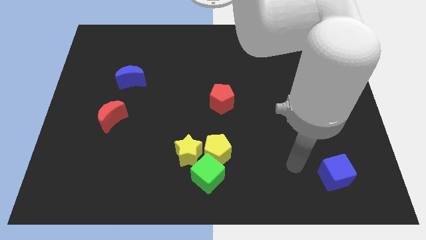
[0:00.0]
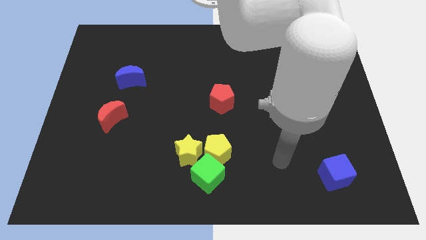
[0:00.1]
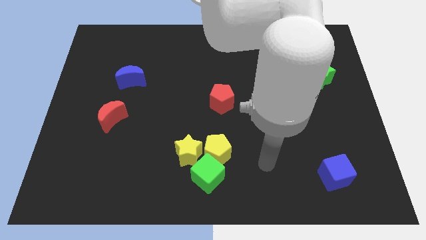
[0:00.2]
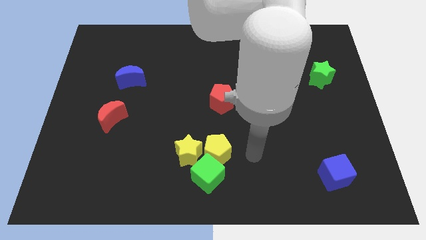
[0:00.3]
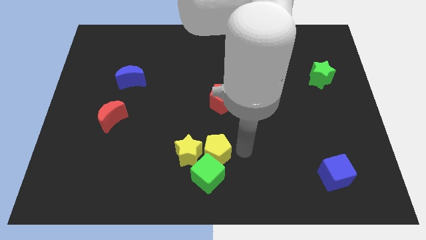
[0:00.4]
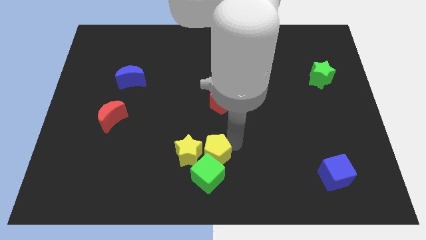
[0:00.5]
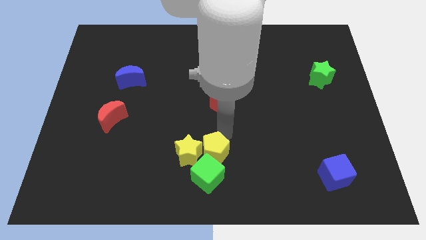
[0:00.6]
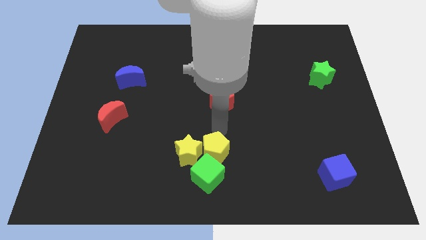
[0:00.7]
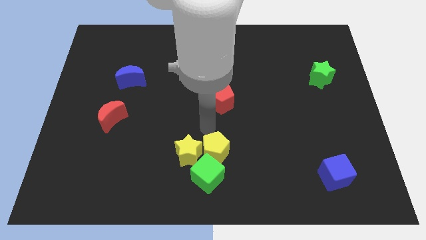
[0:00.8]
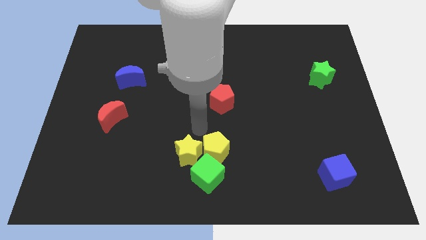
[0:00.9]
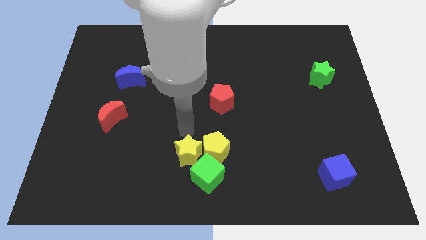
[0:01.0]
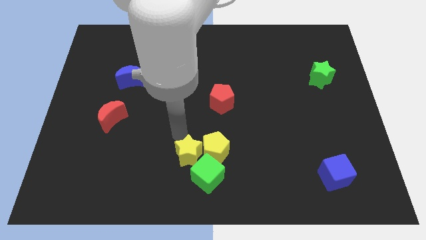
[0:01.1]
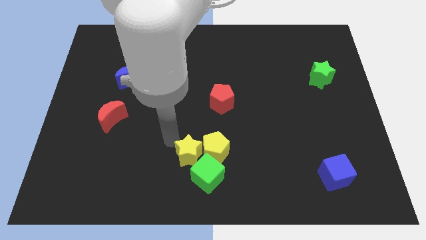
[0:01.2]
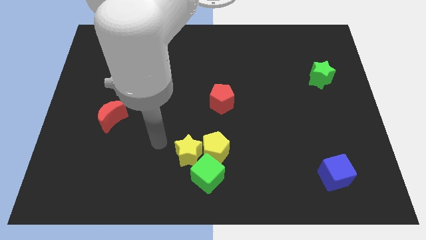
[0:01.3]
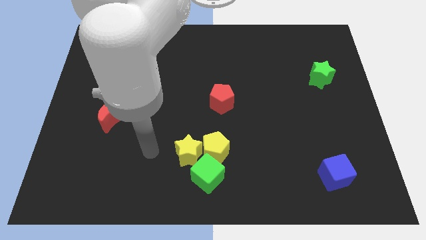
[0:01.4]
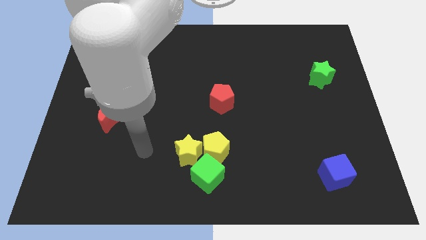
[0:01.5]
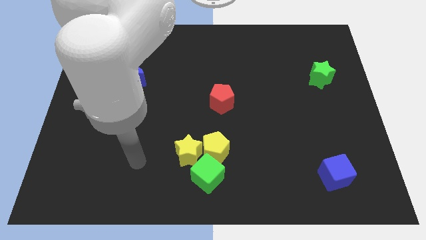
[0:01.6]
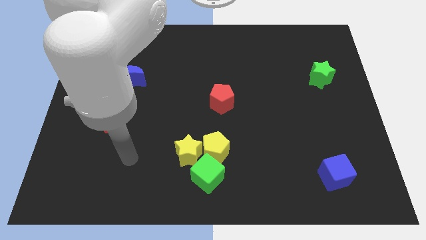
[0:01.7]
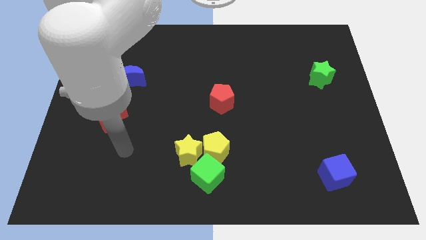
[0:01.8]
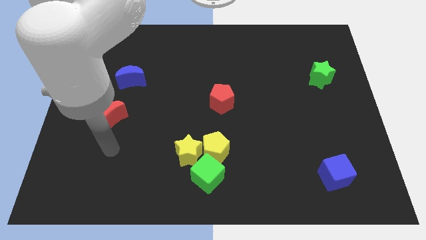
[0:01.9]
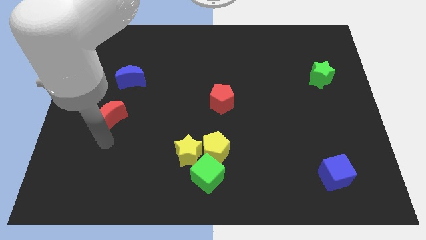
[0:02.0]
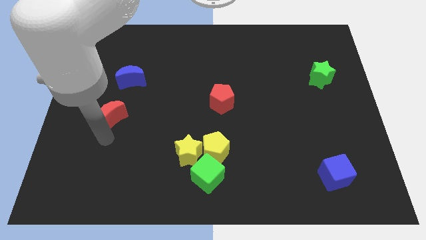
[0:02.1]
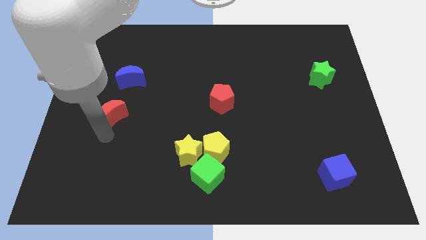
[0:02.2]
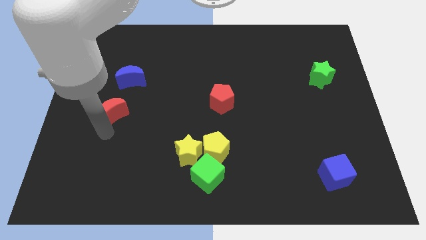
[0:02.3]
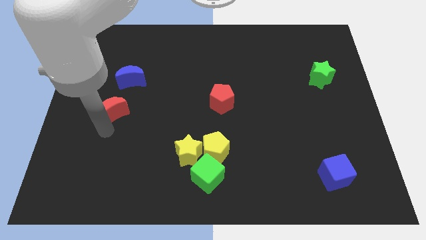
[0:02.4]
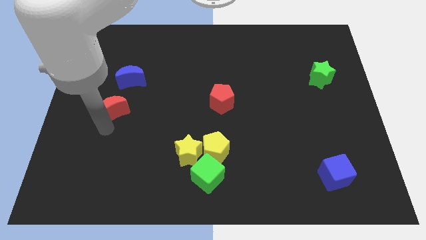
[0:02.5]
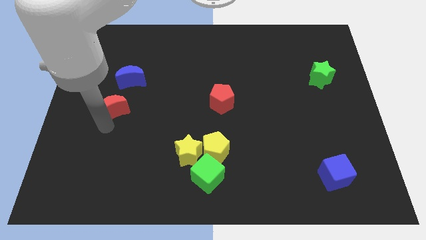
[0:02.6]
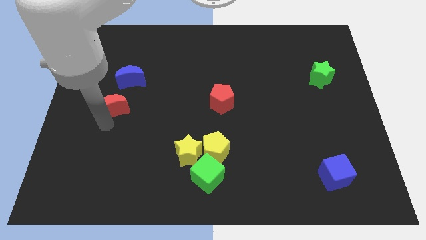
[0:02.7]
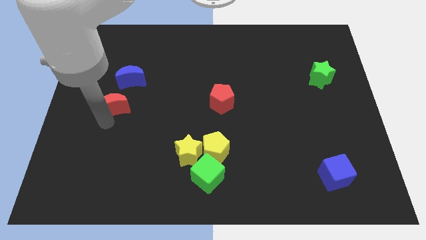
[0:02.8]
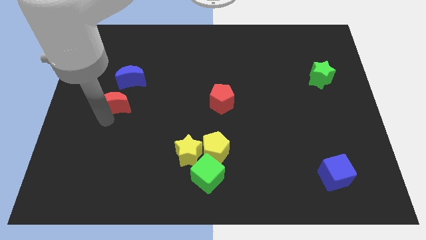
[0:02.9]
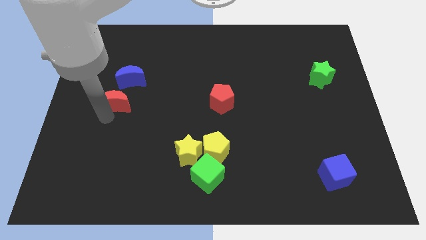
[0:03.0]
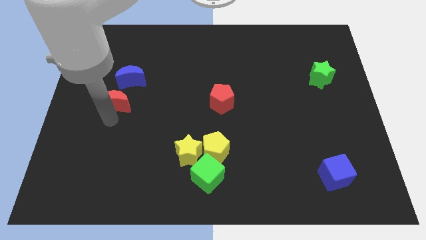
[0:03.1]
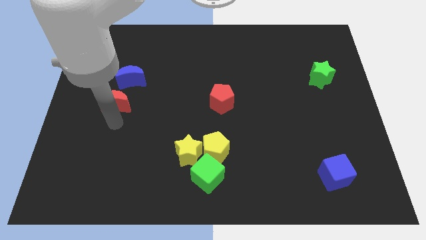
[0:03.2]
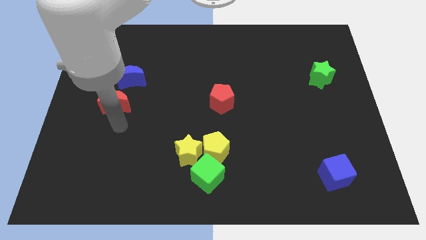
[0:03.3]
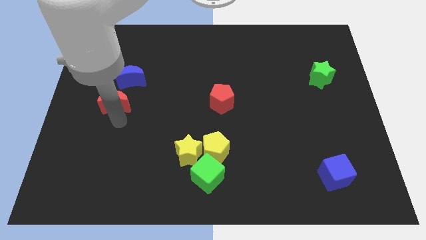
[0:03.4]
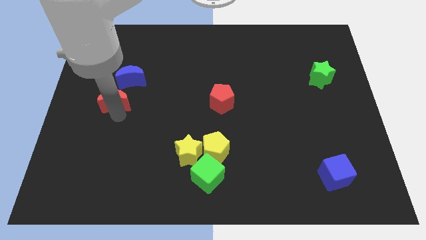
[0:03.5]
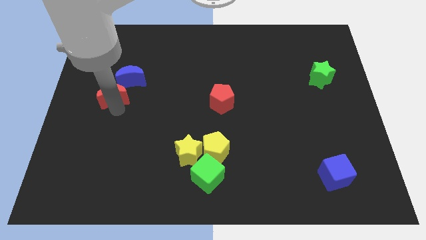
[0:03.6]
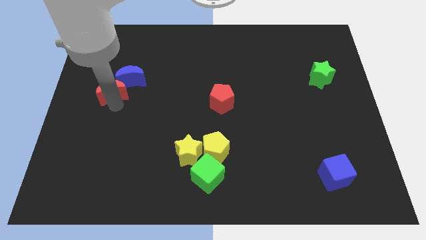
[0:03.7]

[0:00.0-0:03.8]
slightly slide the red moon up

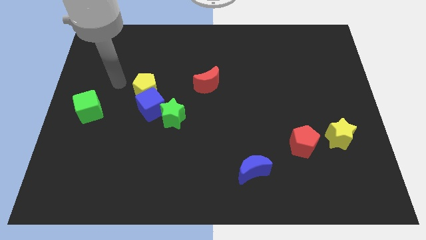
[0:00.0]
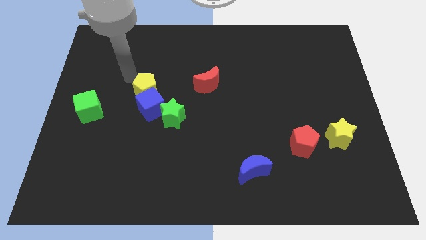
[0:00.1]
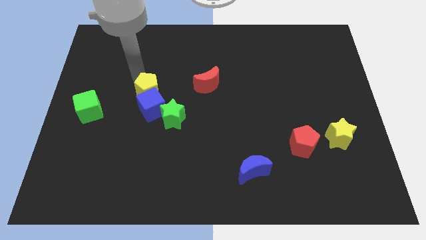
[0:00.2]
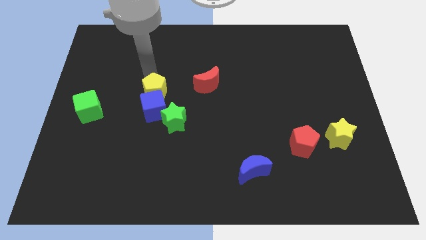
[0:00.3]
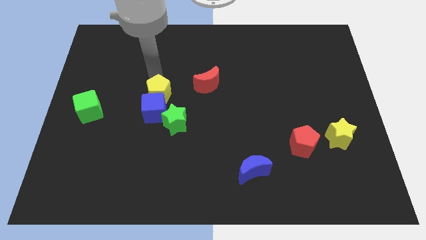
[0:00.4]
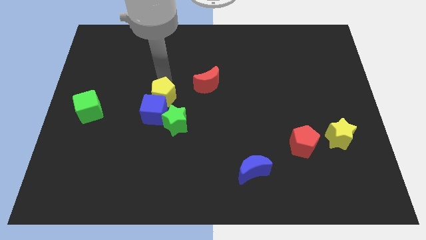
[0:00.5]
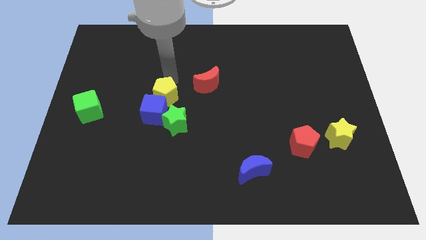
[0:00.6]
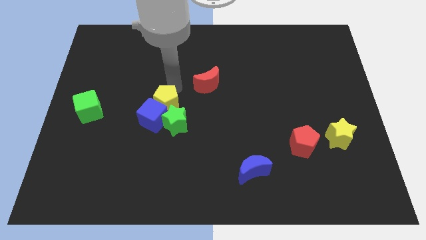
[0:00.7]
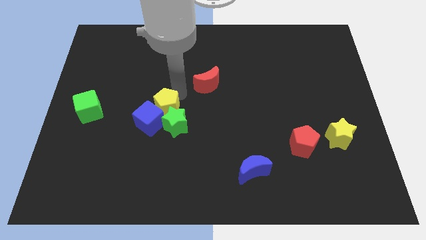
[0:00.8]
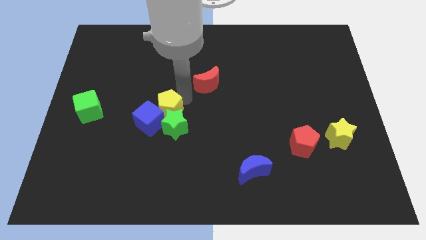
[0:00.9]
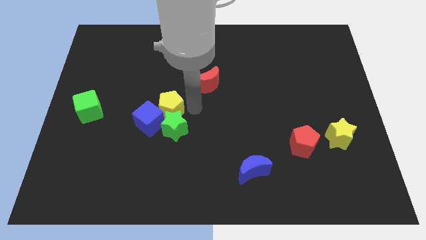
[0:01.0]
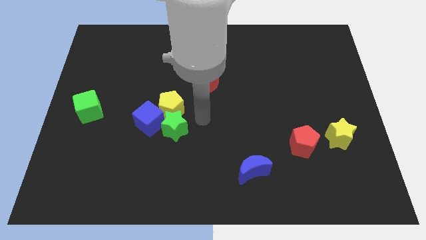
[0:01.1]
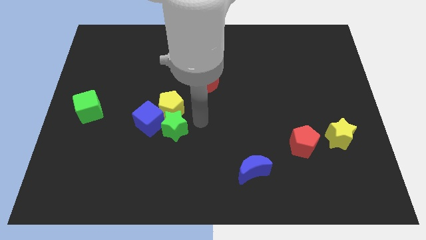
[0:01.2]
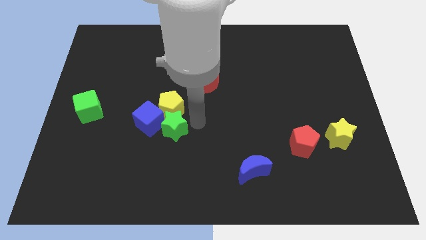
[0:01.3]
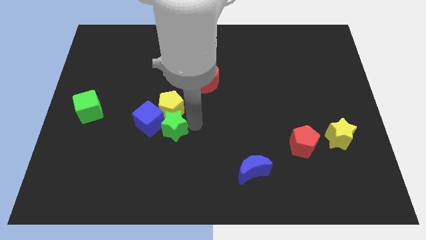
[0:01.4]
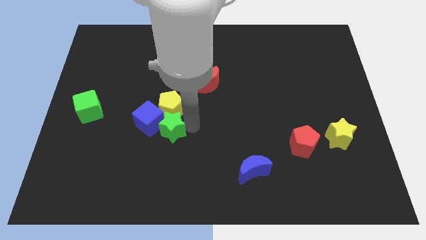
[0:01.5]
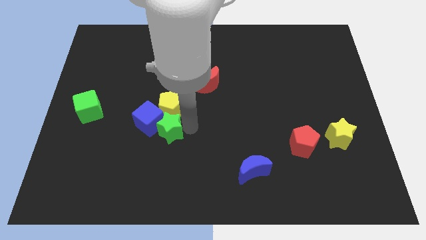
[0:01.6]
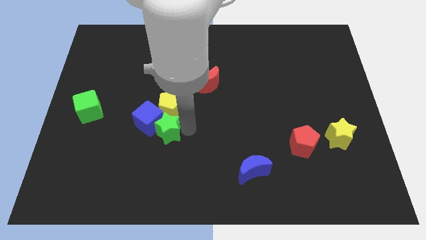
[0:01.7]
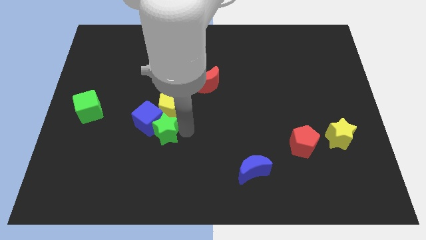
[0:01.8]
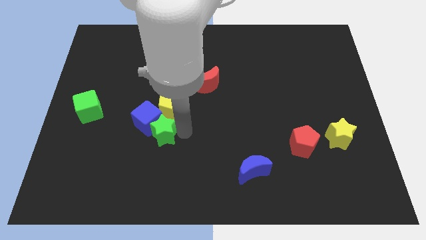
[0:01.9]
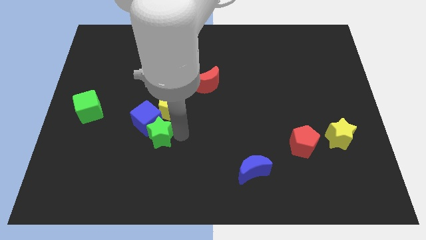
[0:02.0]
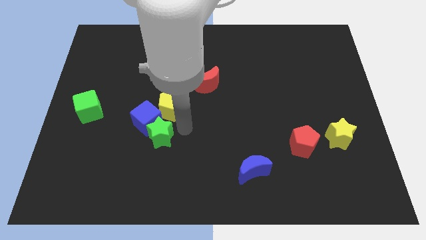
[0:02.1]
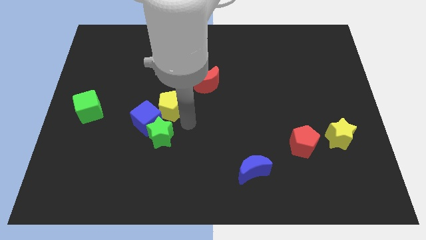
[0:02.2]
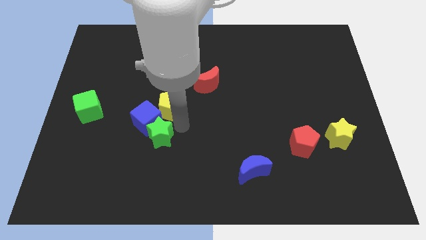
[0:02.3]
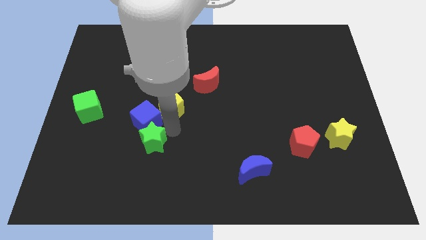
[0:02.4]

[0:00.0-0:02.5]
push the green star downwards and then left a little

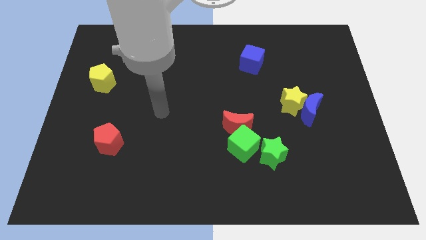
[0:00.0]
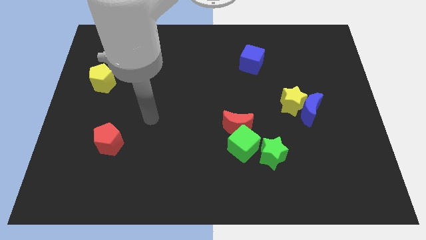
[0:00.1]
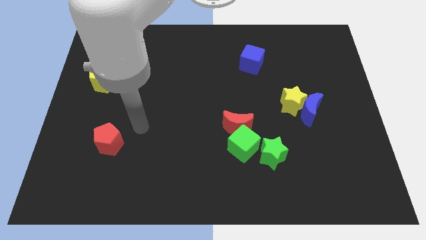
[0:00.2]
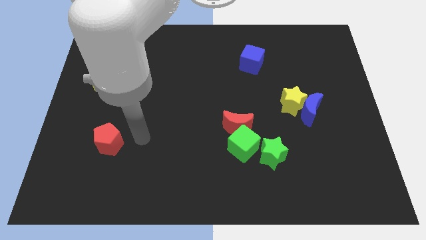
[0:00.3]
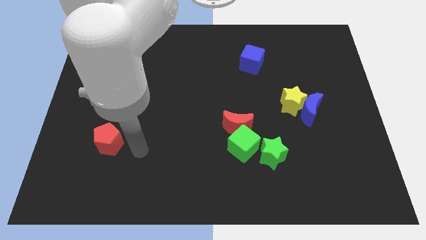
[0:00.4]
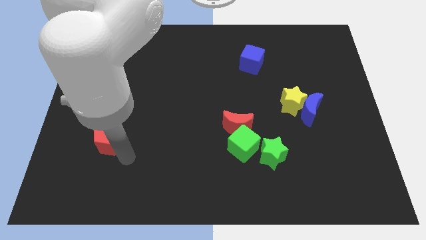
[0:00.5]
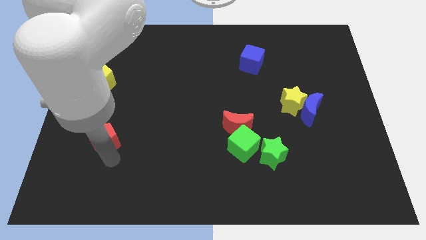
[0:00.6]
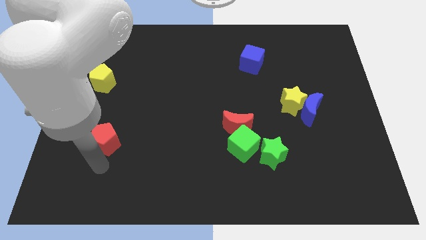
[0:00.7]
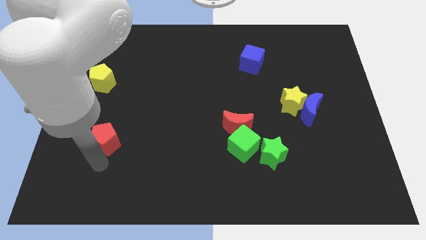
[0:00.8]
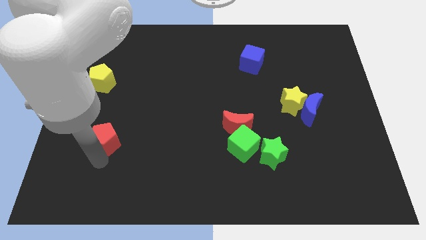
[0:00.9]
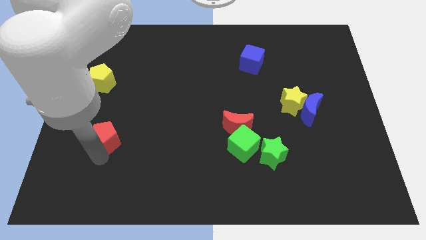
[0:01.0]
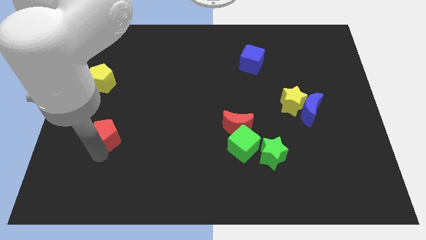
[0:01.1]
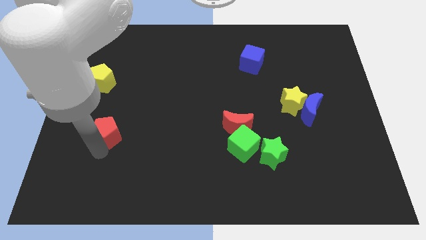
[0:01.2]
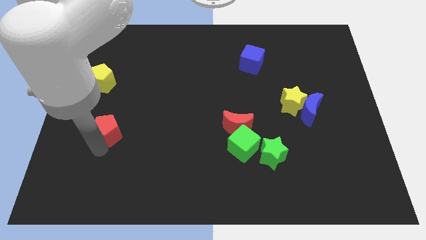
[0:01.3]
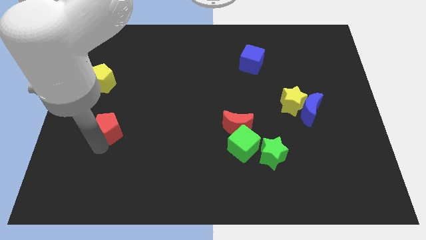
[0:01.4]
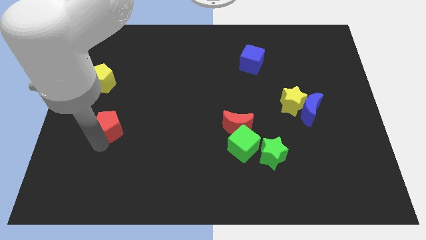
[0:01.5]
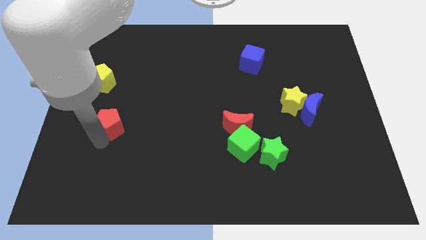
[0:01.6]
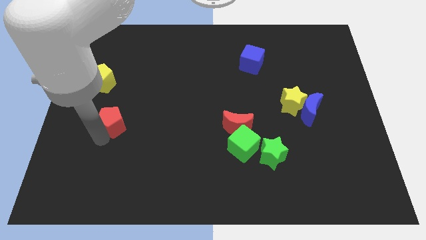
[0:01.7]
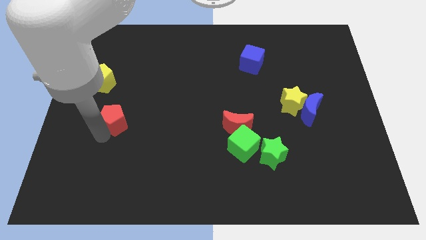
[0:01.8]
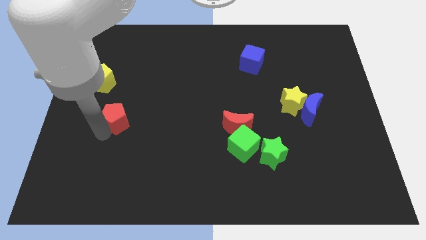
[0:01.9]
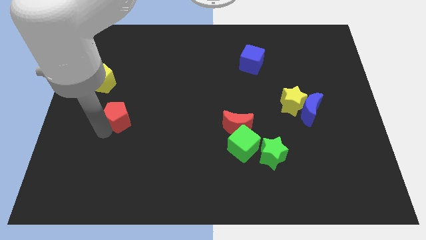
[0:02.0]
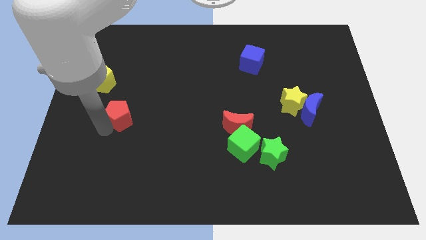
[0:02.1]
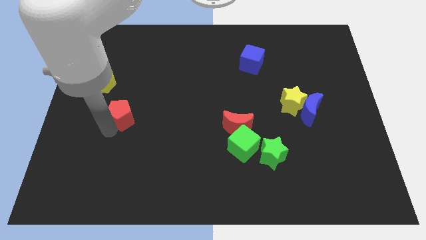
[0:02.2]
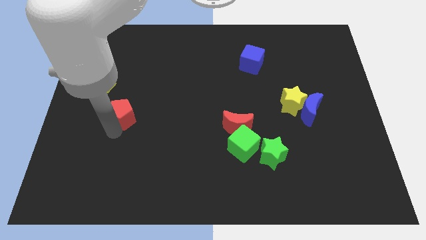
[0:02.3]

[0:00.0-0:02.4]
slightly push the red pentagon up
